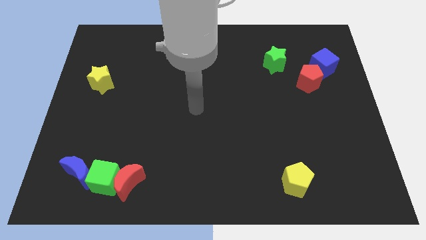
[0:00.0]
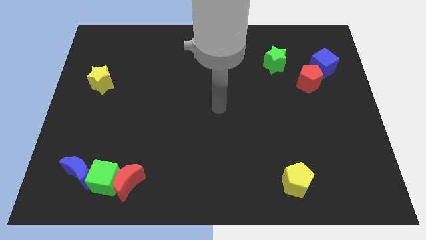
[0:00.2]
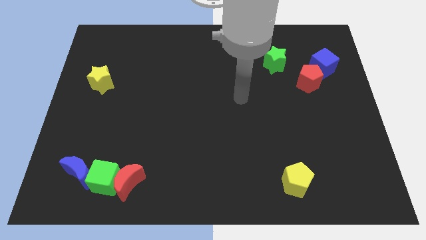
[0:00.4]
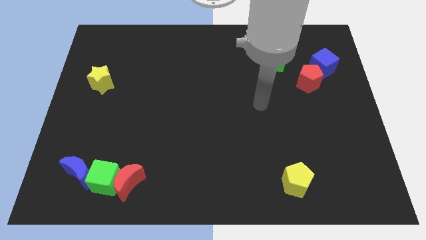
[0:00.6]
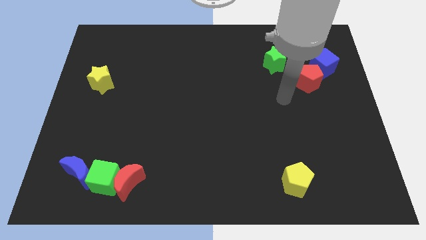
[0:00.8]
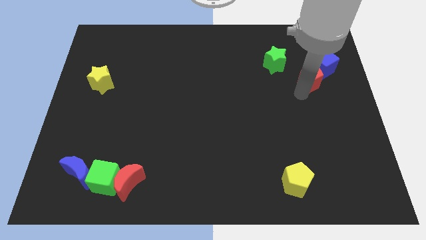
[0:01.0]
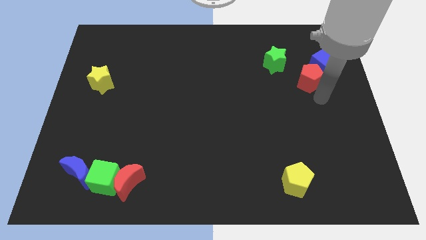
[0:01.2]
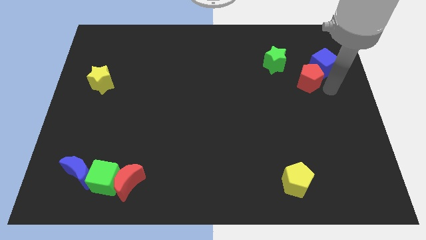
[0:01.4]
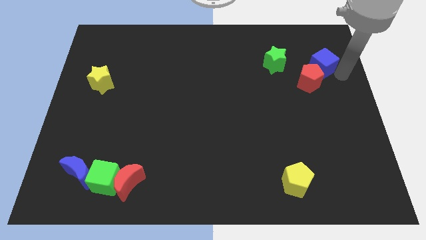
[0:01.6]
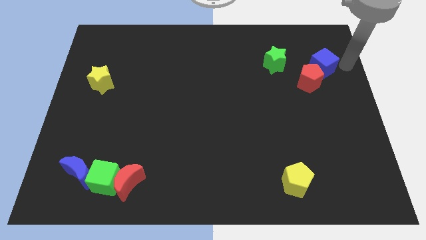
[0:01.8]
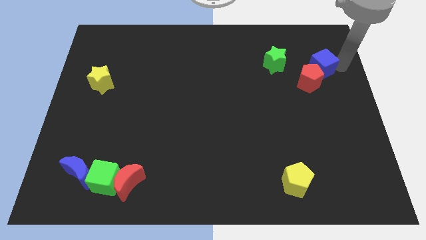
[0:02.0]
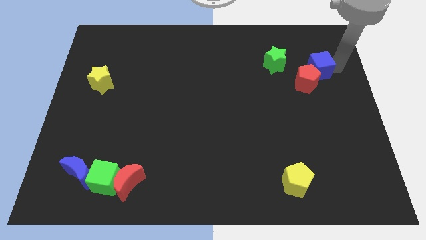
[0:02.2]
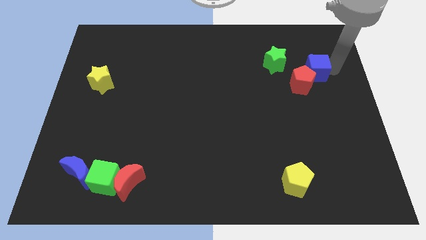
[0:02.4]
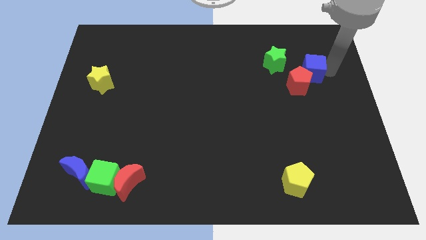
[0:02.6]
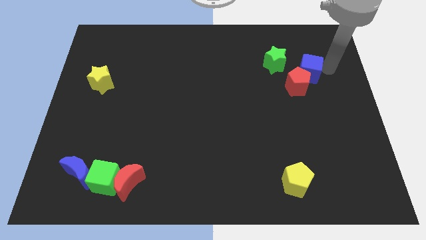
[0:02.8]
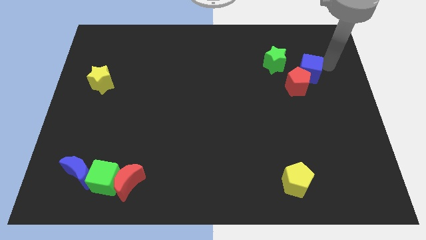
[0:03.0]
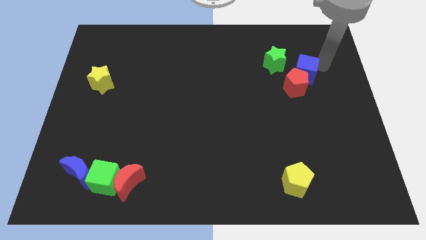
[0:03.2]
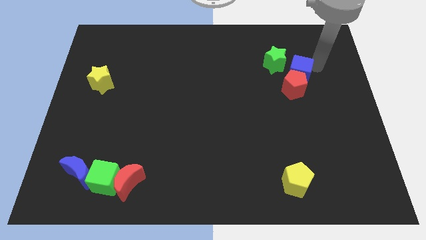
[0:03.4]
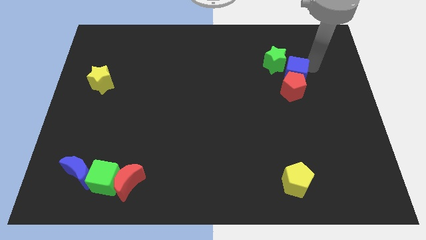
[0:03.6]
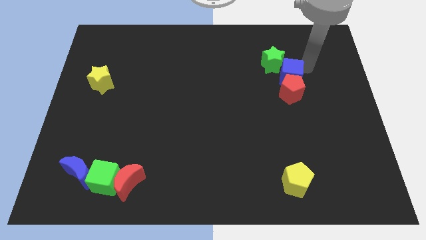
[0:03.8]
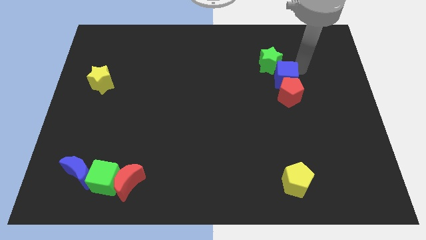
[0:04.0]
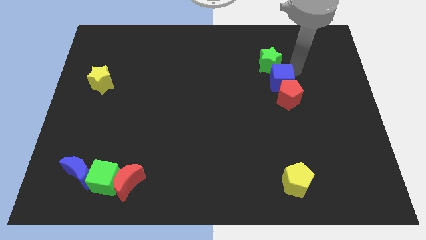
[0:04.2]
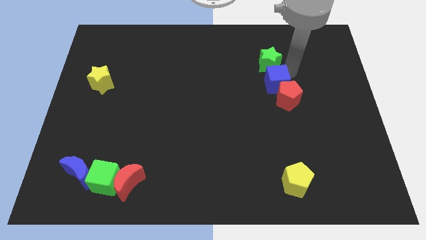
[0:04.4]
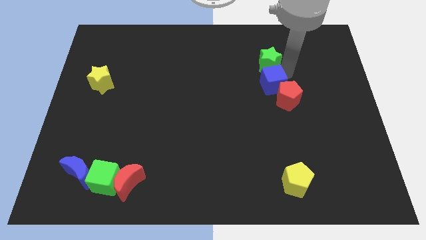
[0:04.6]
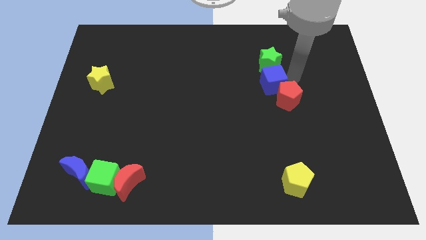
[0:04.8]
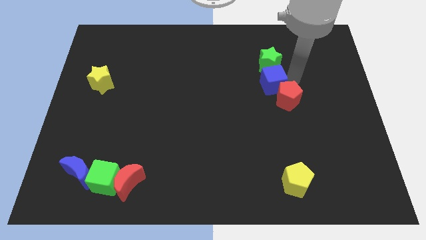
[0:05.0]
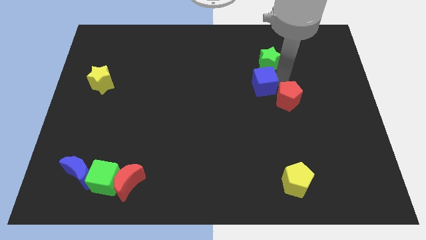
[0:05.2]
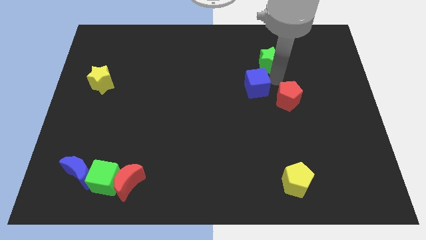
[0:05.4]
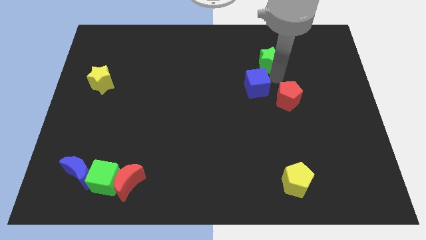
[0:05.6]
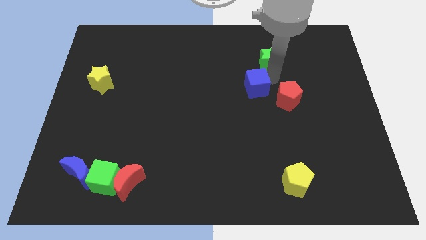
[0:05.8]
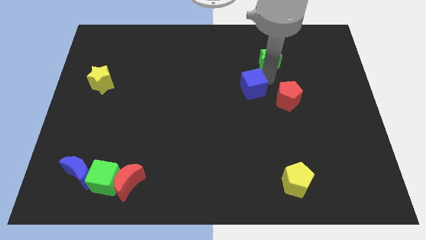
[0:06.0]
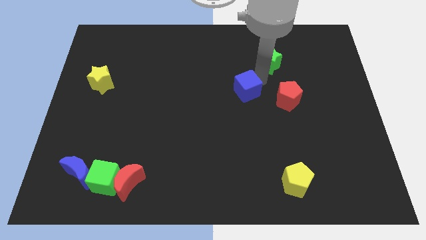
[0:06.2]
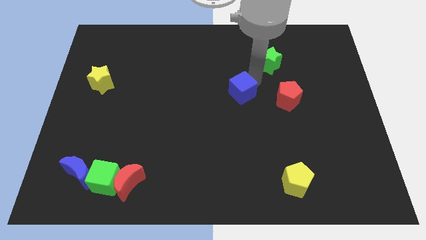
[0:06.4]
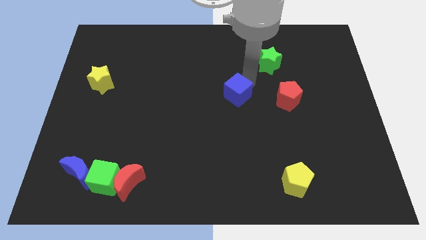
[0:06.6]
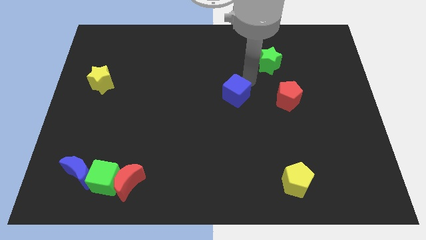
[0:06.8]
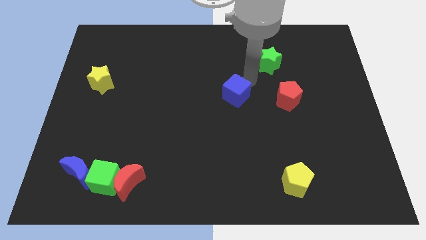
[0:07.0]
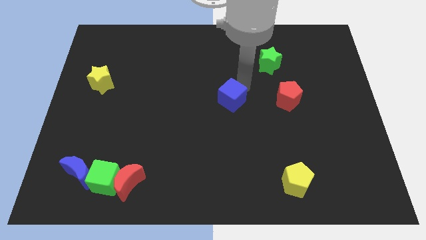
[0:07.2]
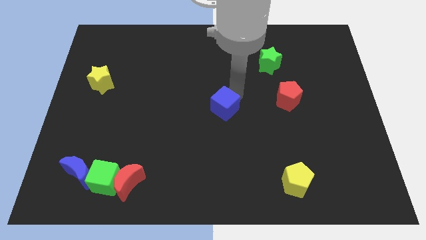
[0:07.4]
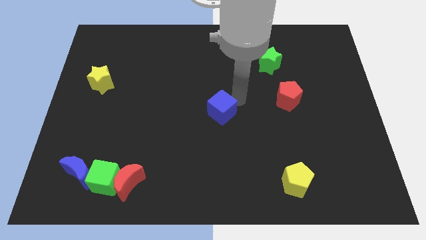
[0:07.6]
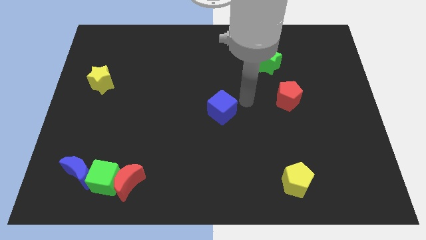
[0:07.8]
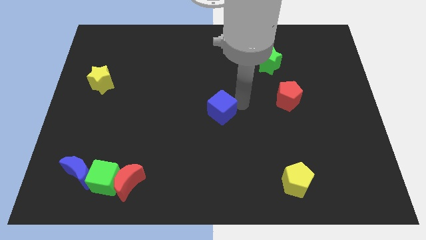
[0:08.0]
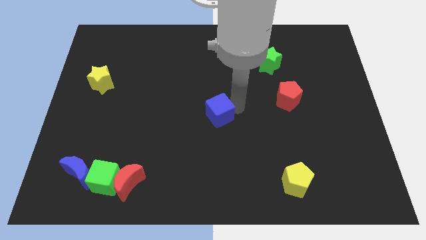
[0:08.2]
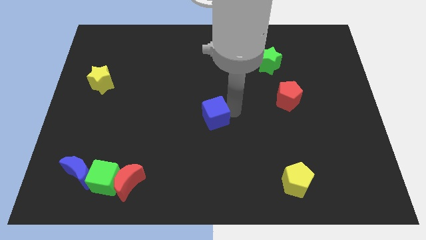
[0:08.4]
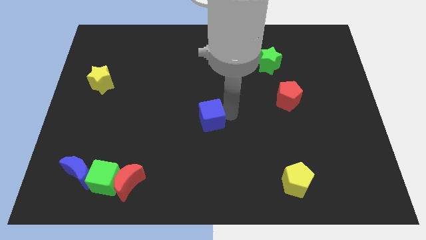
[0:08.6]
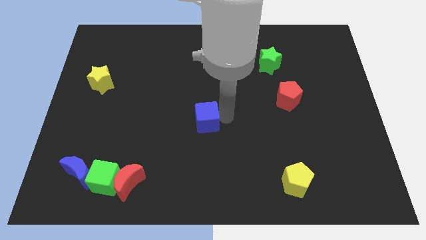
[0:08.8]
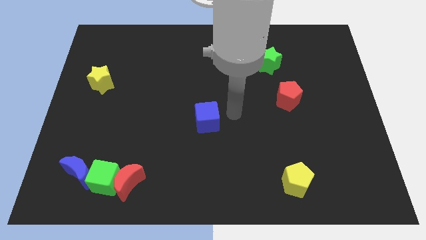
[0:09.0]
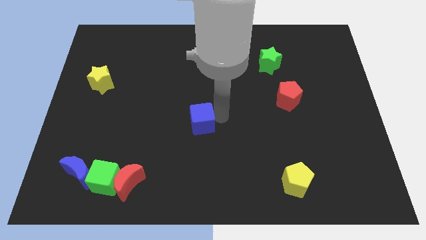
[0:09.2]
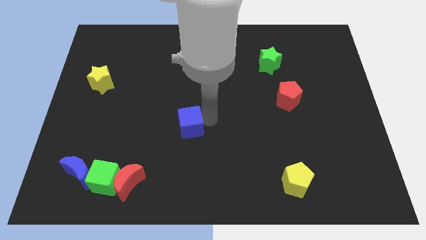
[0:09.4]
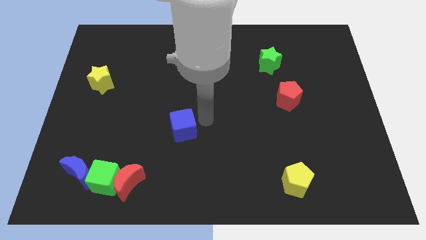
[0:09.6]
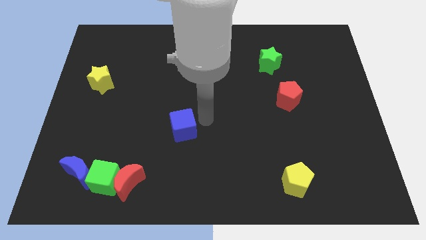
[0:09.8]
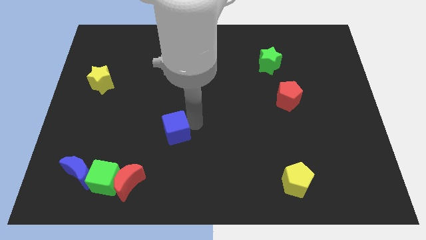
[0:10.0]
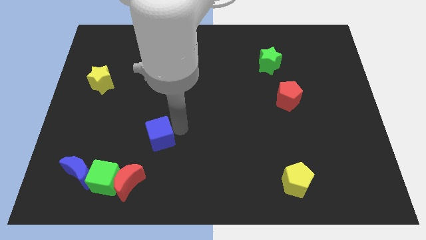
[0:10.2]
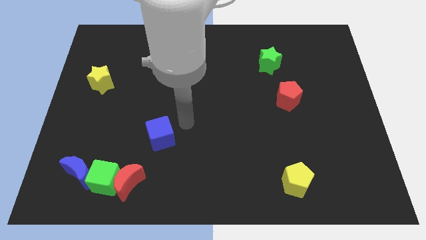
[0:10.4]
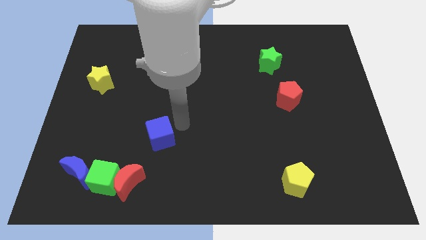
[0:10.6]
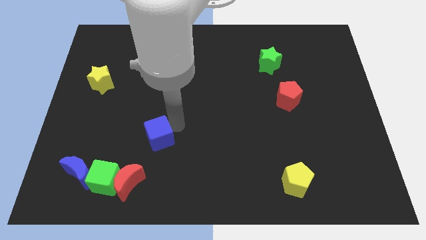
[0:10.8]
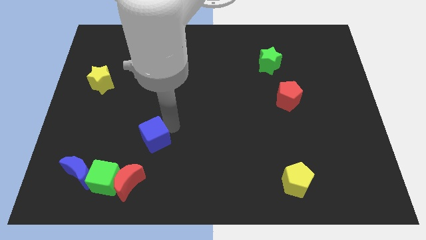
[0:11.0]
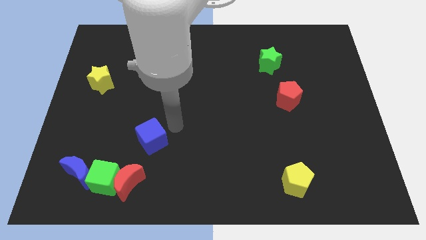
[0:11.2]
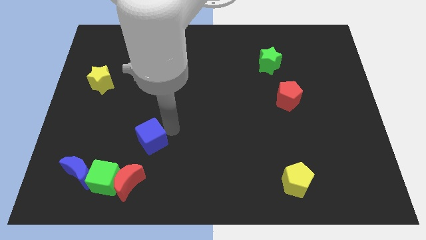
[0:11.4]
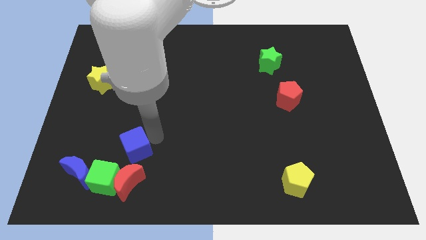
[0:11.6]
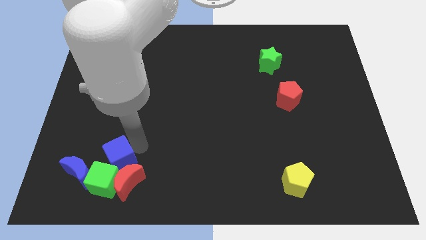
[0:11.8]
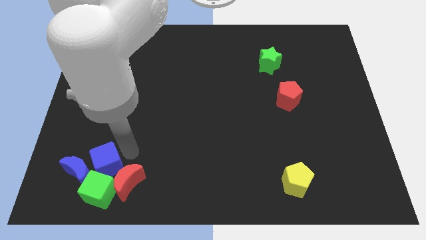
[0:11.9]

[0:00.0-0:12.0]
slide the blue cube to the blue moon
